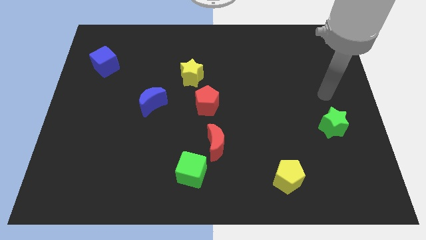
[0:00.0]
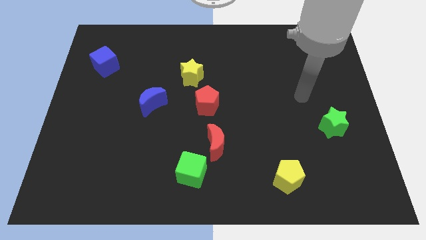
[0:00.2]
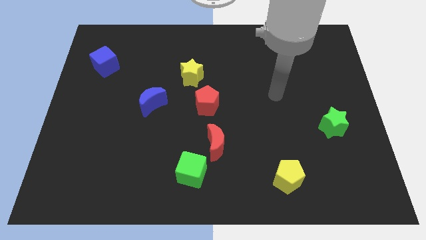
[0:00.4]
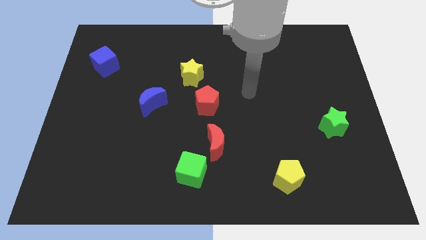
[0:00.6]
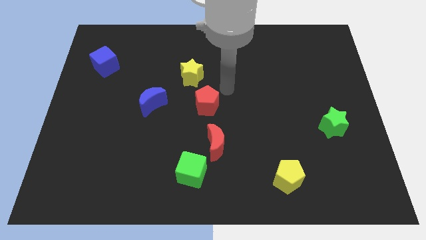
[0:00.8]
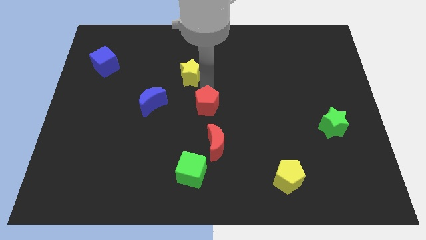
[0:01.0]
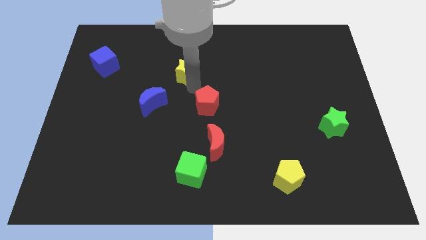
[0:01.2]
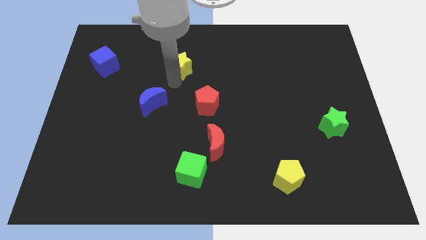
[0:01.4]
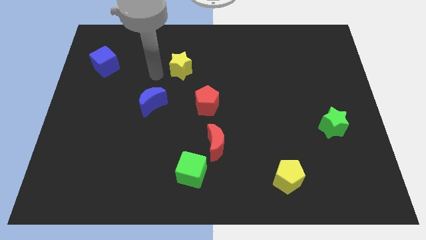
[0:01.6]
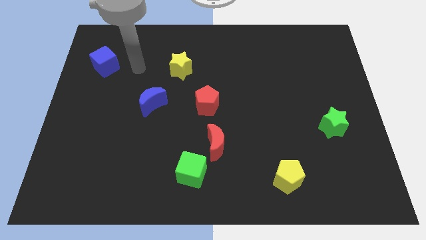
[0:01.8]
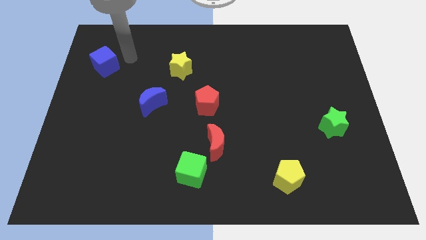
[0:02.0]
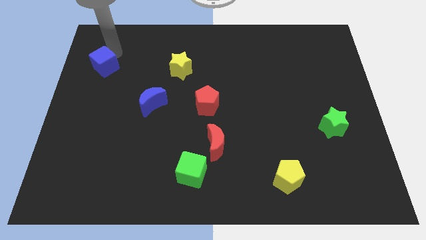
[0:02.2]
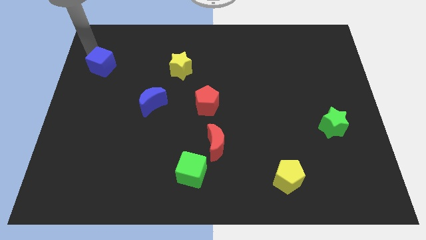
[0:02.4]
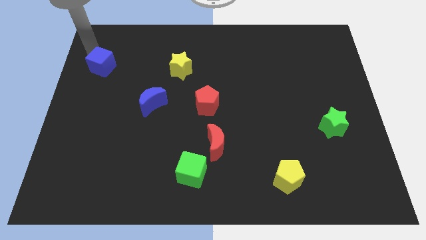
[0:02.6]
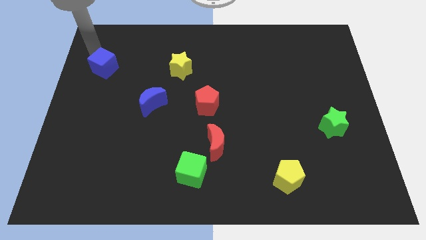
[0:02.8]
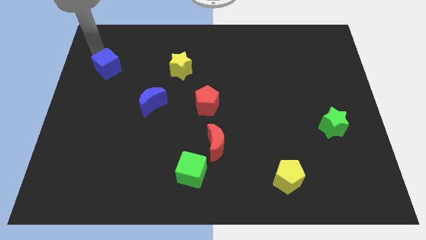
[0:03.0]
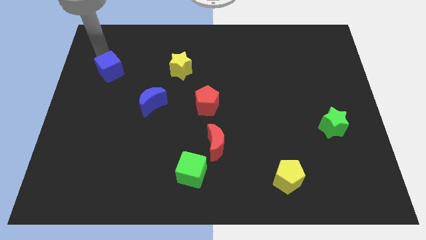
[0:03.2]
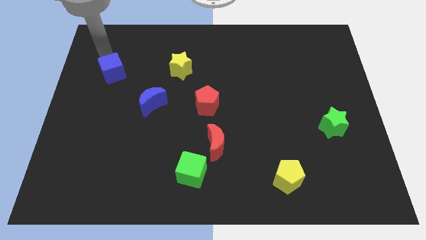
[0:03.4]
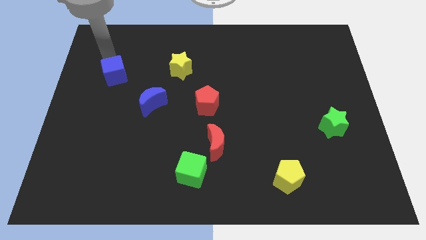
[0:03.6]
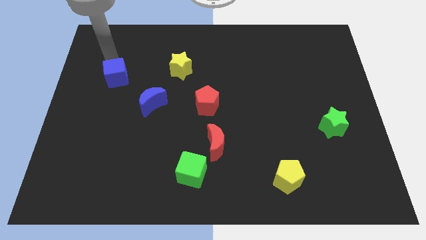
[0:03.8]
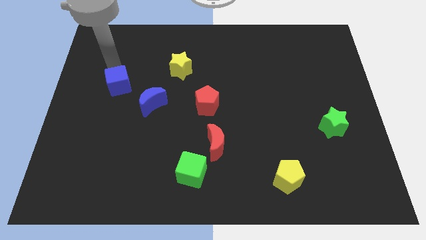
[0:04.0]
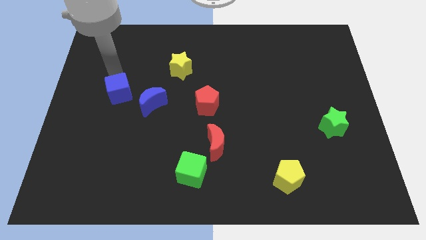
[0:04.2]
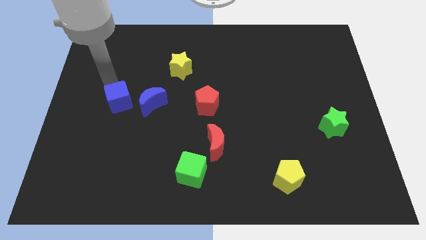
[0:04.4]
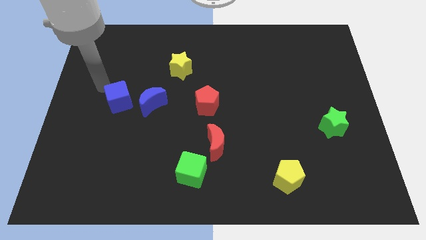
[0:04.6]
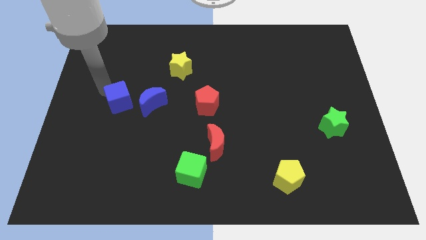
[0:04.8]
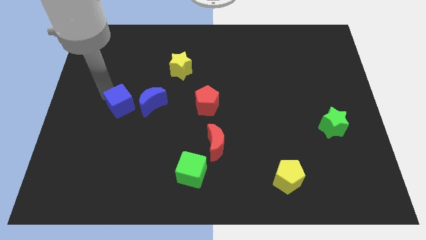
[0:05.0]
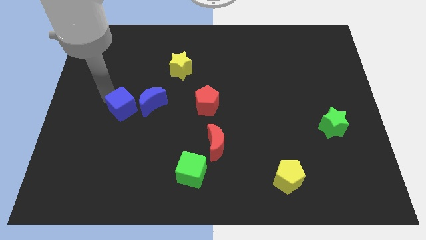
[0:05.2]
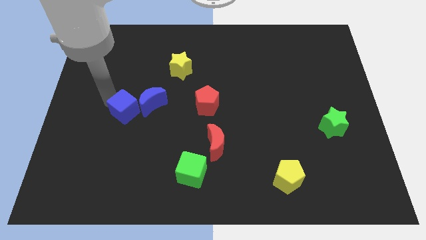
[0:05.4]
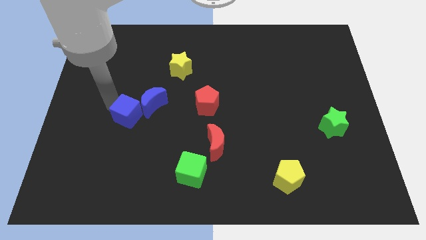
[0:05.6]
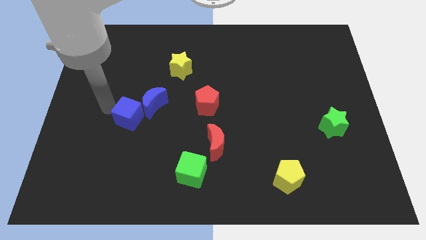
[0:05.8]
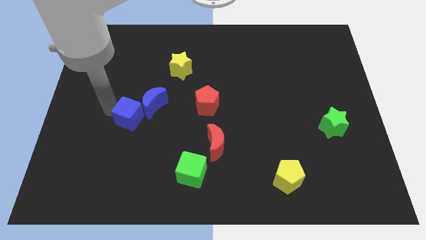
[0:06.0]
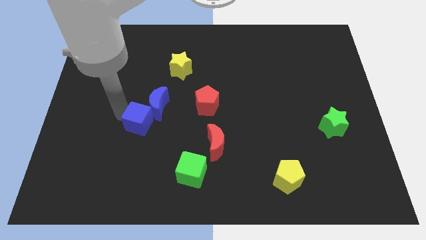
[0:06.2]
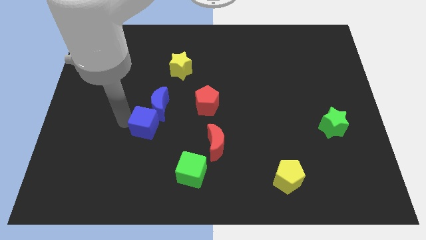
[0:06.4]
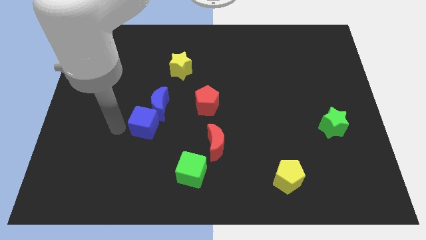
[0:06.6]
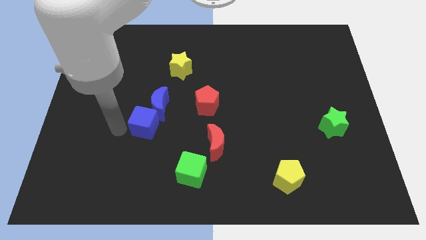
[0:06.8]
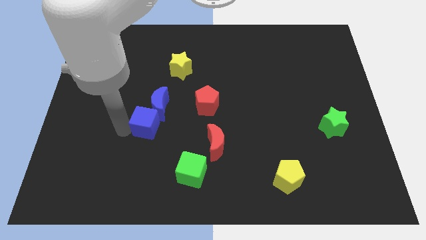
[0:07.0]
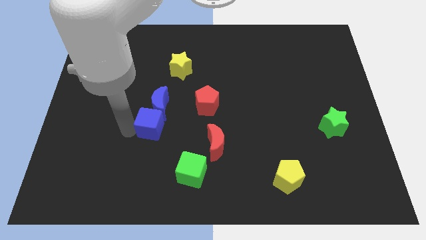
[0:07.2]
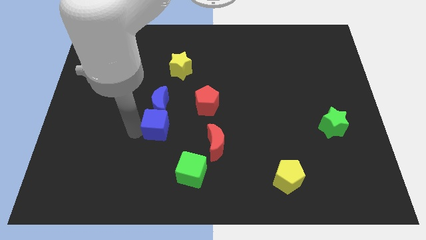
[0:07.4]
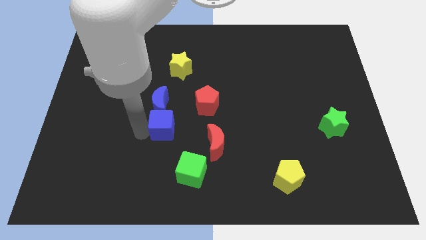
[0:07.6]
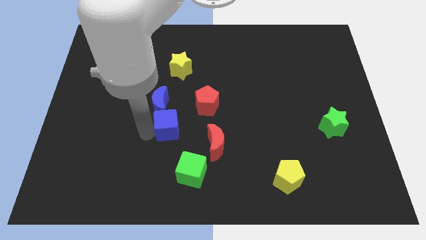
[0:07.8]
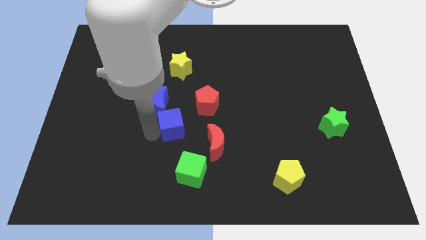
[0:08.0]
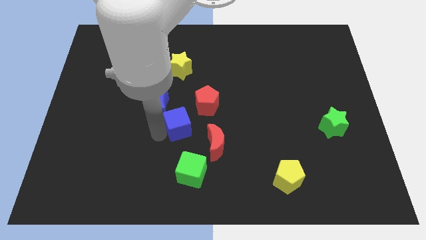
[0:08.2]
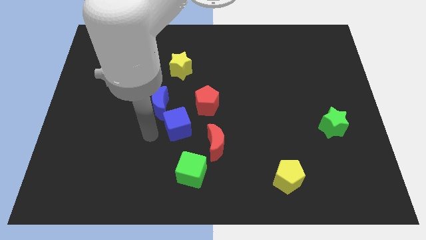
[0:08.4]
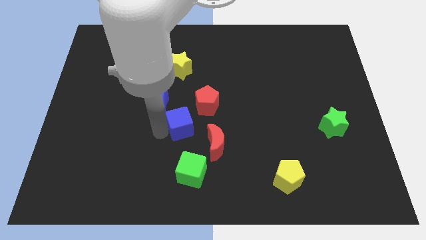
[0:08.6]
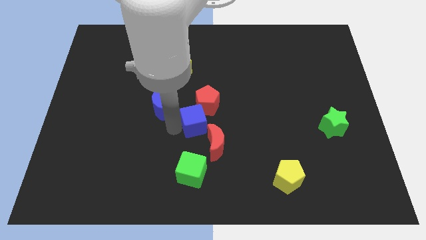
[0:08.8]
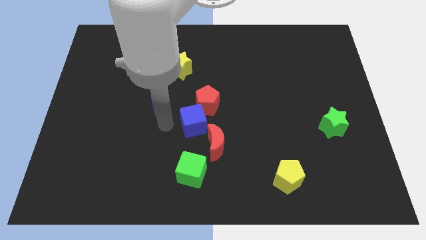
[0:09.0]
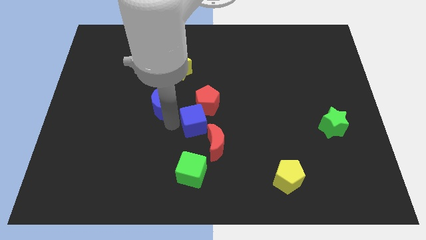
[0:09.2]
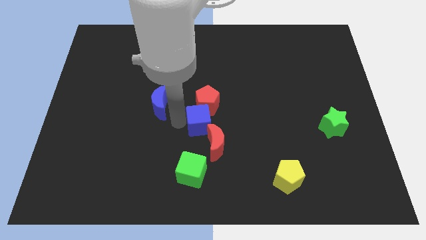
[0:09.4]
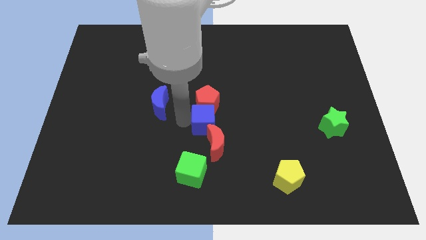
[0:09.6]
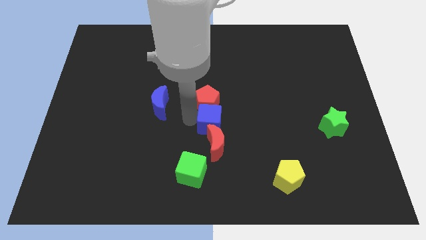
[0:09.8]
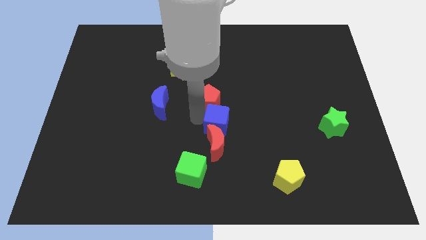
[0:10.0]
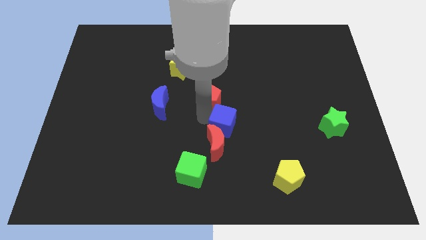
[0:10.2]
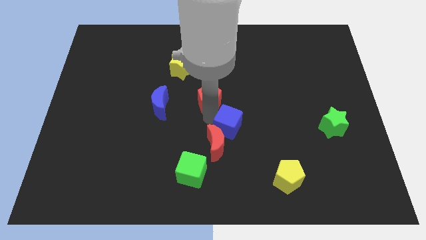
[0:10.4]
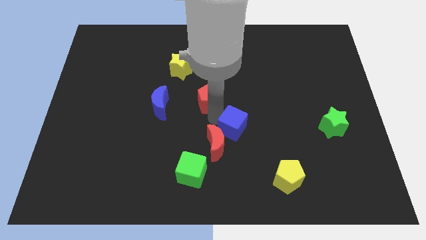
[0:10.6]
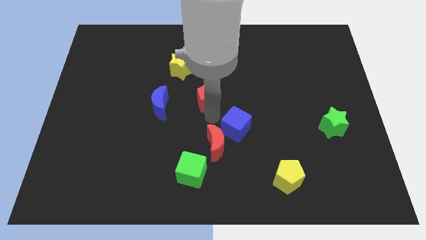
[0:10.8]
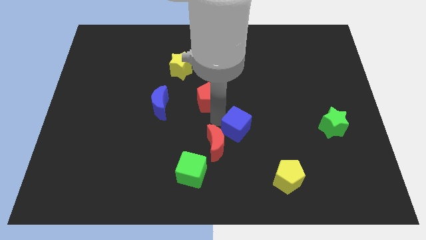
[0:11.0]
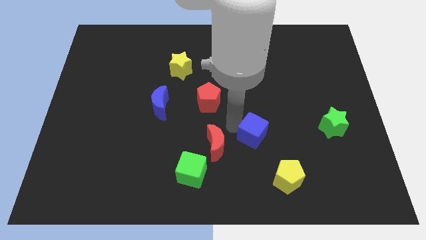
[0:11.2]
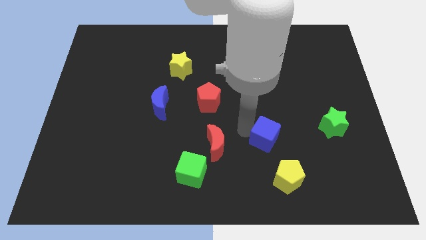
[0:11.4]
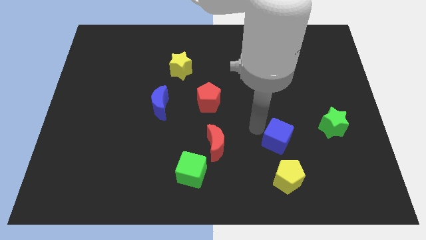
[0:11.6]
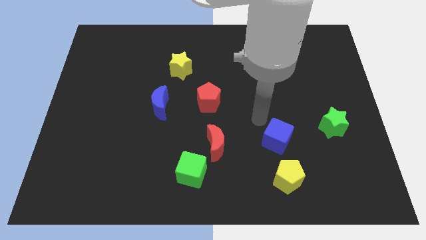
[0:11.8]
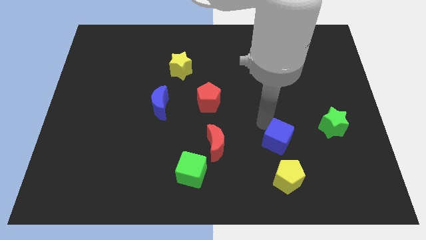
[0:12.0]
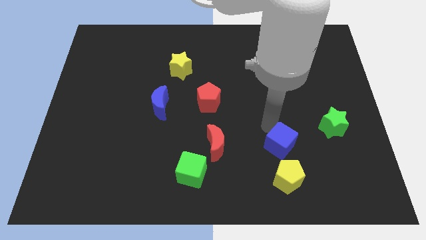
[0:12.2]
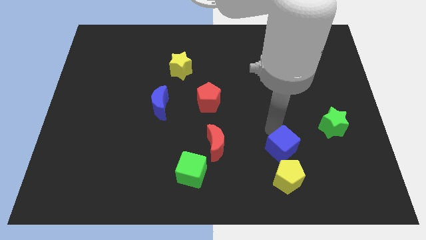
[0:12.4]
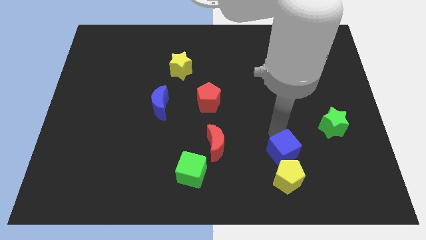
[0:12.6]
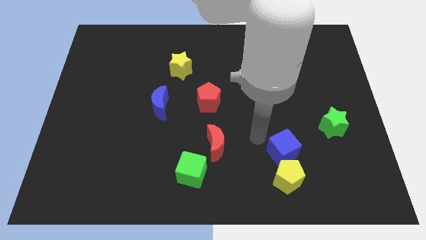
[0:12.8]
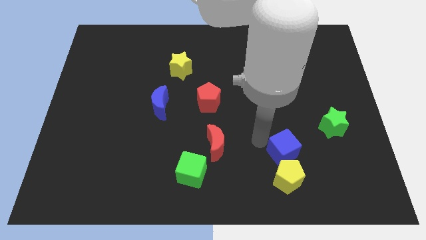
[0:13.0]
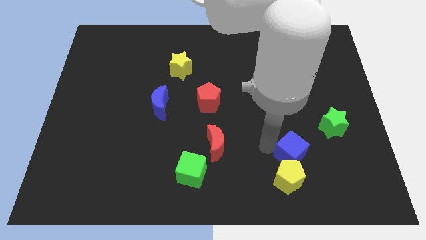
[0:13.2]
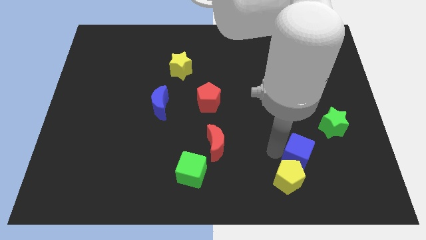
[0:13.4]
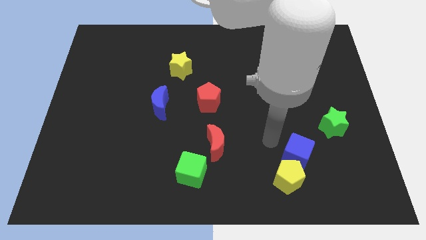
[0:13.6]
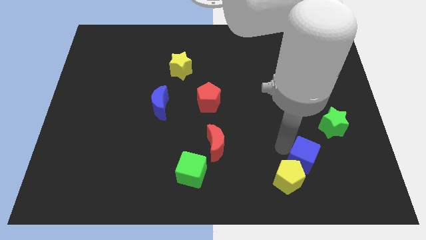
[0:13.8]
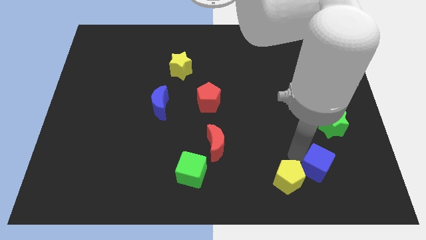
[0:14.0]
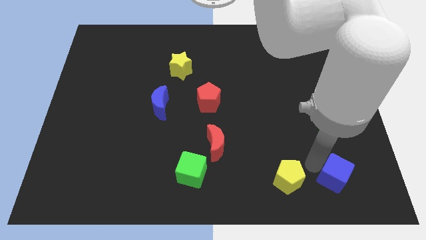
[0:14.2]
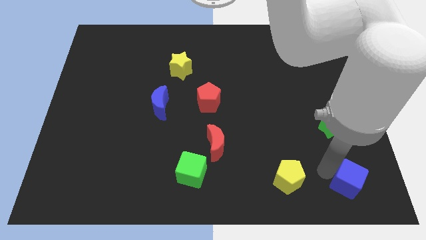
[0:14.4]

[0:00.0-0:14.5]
push the blue cube to the lower right corner
